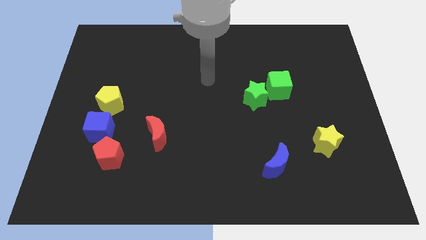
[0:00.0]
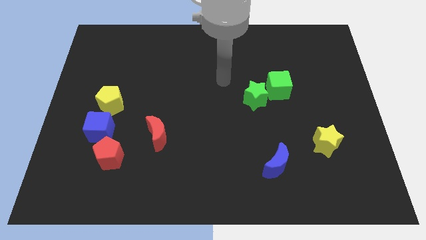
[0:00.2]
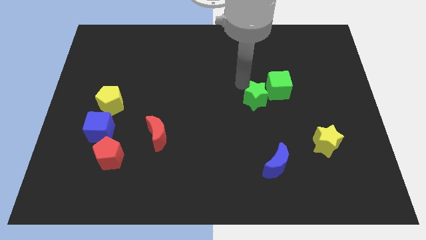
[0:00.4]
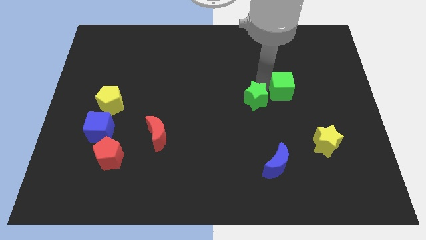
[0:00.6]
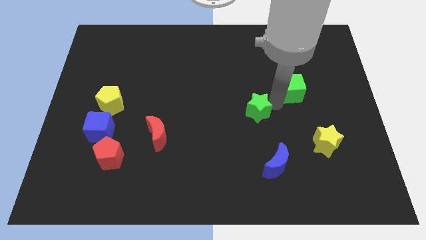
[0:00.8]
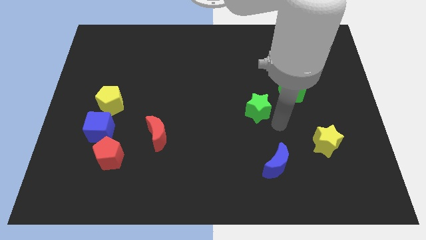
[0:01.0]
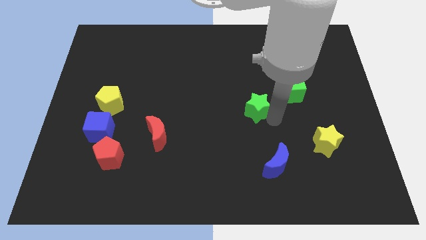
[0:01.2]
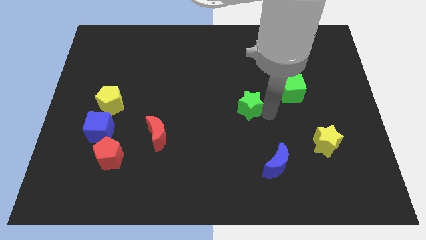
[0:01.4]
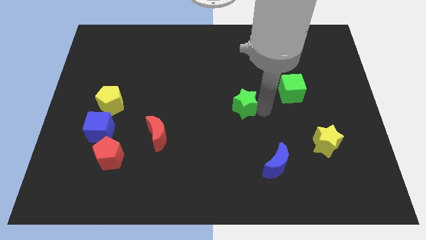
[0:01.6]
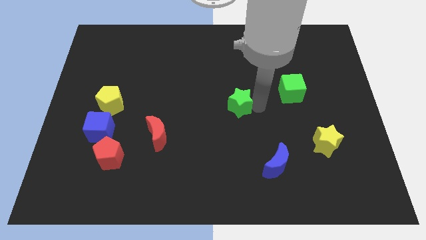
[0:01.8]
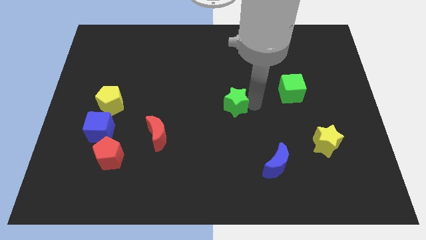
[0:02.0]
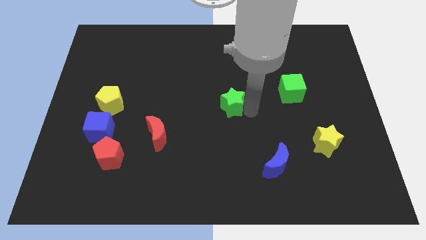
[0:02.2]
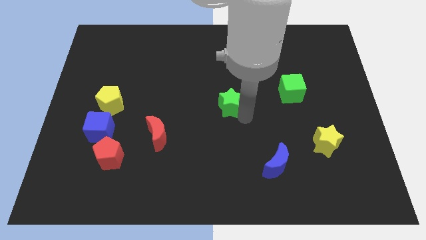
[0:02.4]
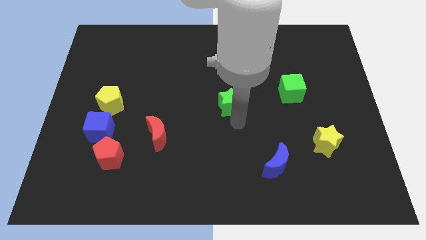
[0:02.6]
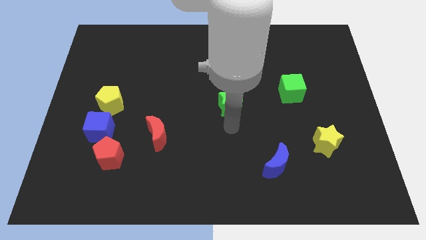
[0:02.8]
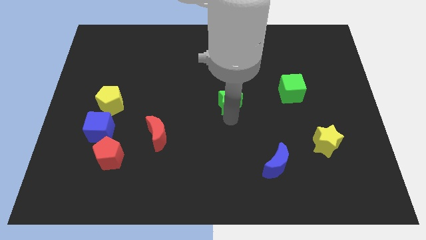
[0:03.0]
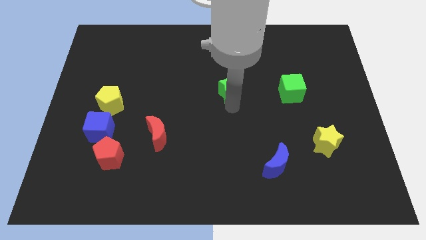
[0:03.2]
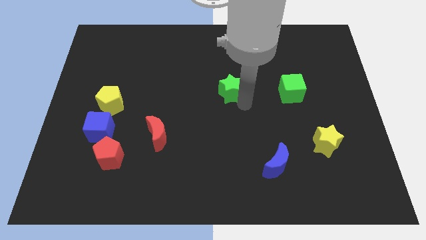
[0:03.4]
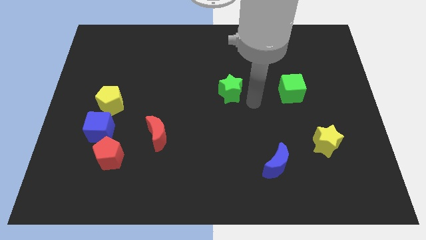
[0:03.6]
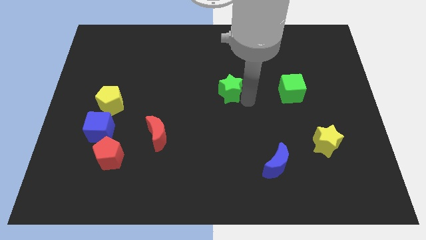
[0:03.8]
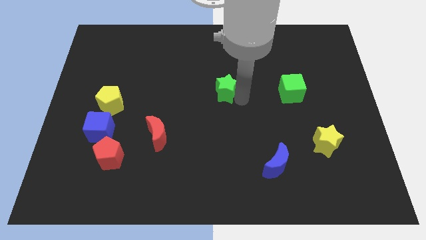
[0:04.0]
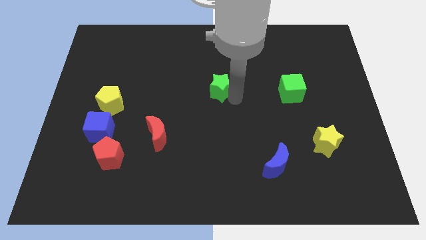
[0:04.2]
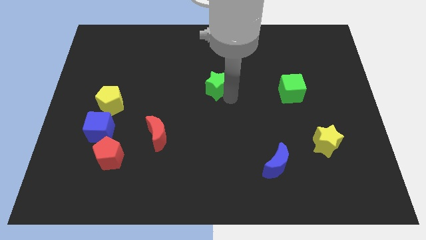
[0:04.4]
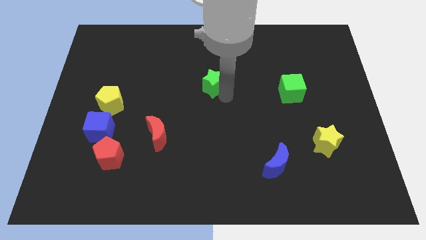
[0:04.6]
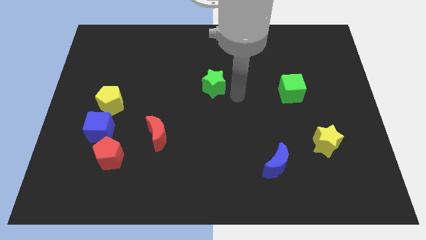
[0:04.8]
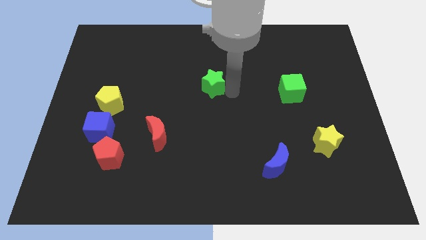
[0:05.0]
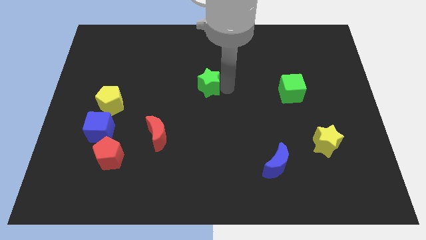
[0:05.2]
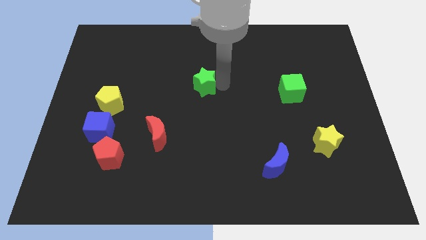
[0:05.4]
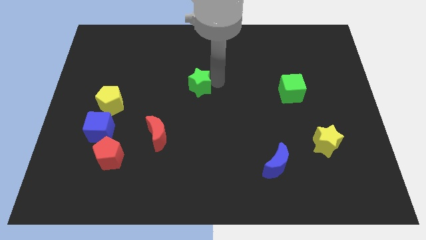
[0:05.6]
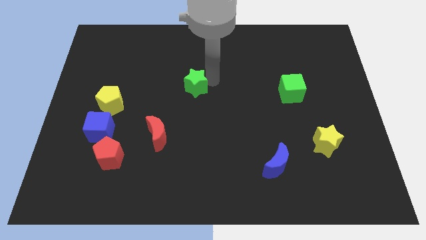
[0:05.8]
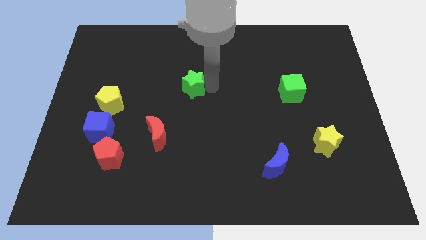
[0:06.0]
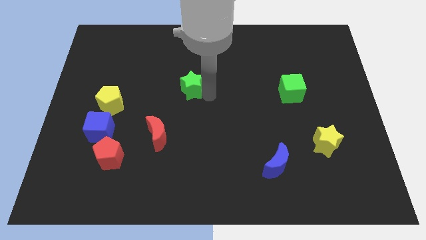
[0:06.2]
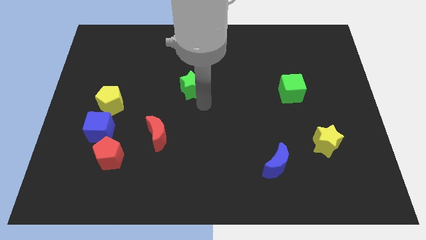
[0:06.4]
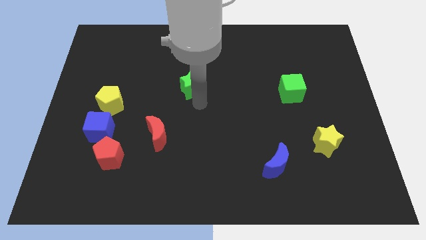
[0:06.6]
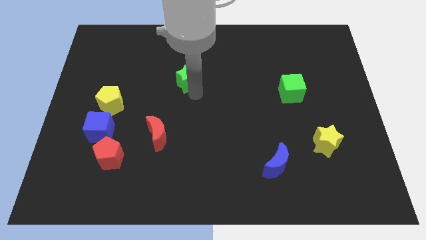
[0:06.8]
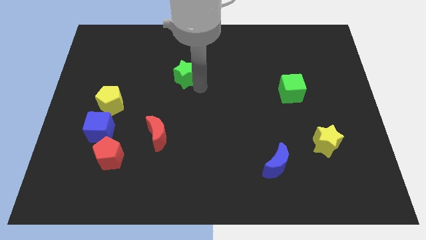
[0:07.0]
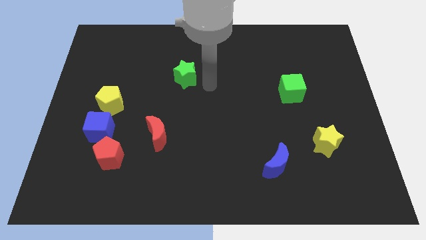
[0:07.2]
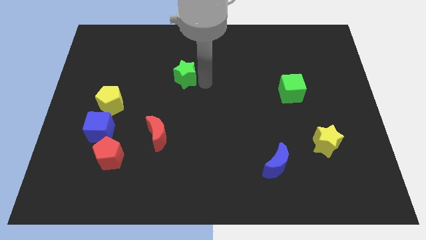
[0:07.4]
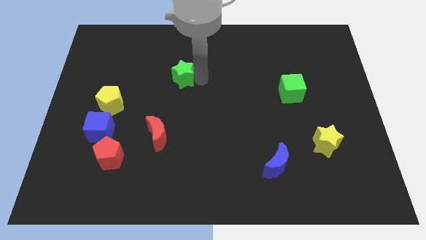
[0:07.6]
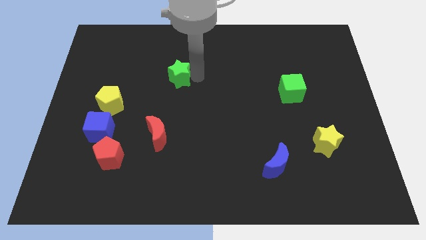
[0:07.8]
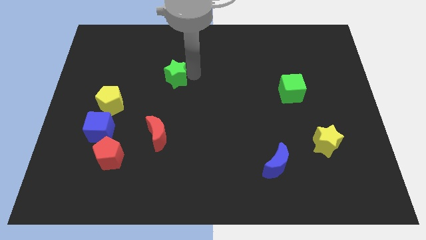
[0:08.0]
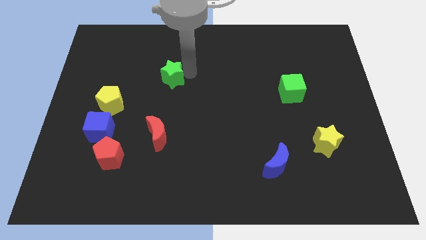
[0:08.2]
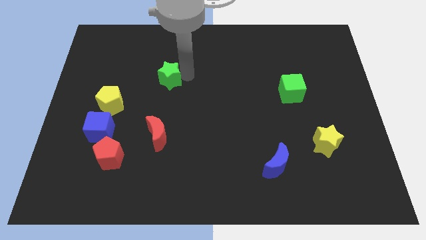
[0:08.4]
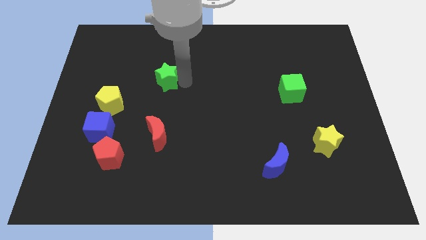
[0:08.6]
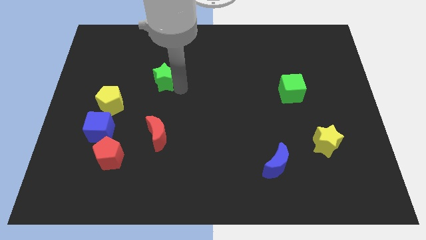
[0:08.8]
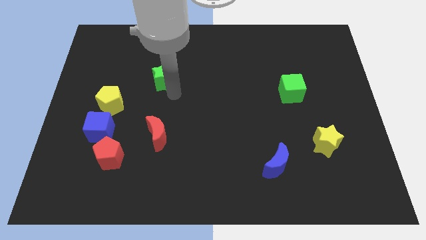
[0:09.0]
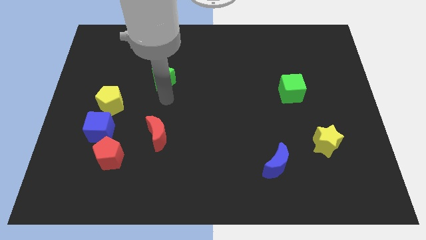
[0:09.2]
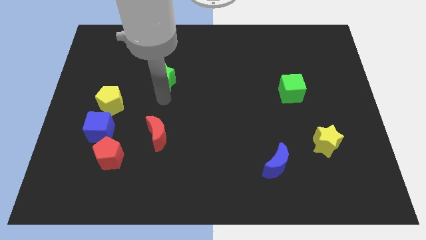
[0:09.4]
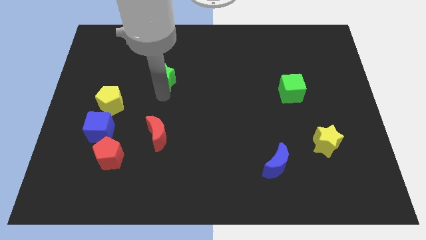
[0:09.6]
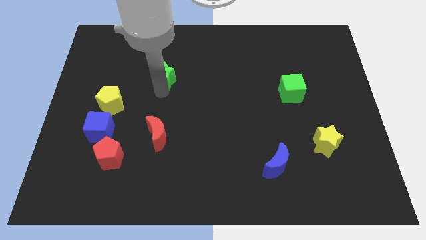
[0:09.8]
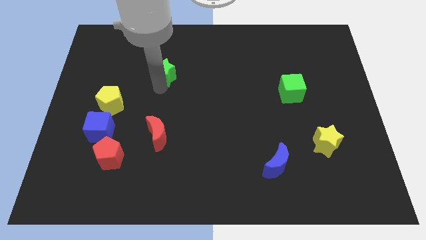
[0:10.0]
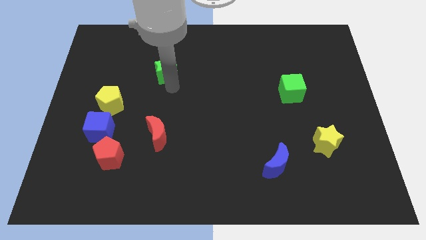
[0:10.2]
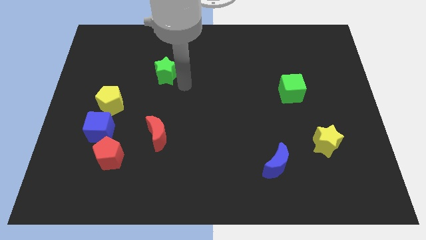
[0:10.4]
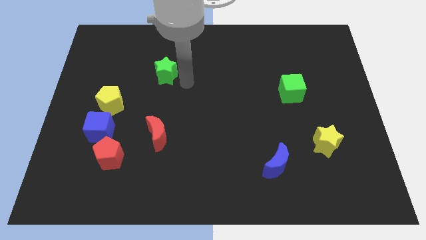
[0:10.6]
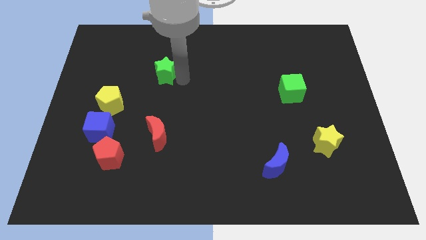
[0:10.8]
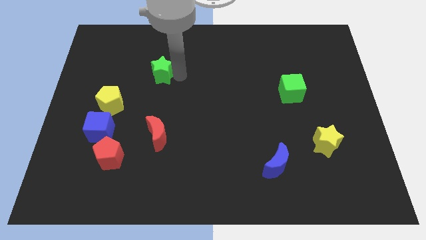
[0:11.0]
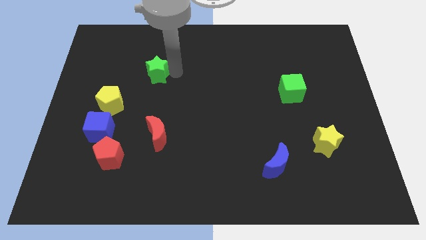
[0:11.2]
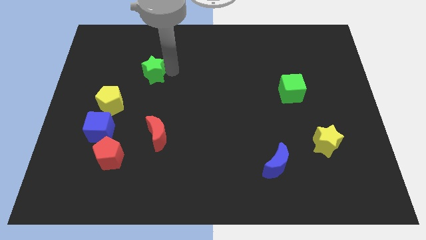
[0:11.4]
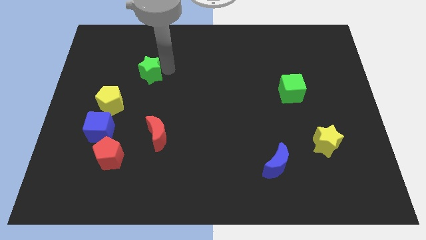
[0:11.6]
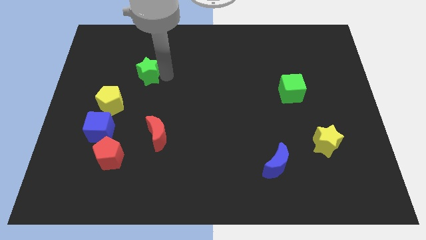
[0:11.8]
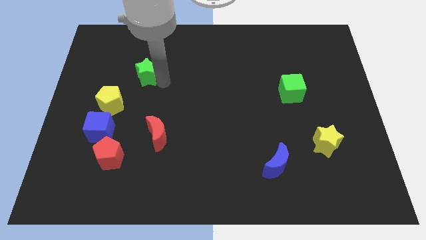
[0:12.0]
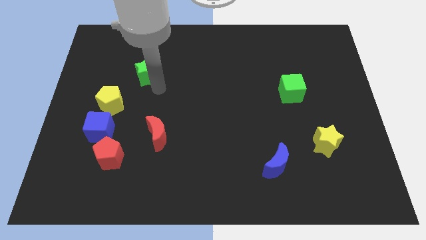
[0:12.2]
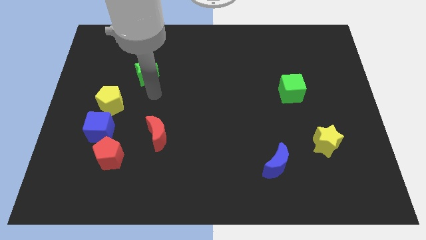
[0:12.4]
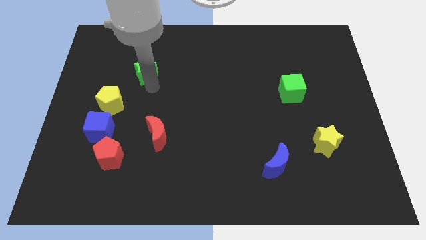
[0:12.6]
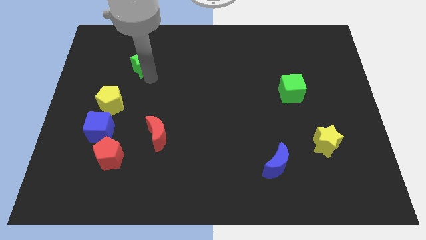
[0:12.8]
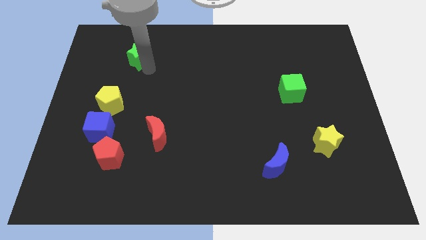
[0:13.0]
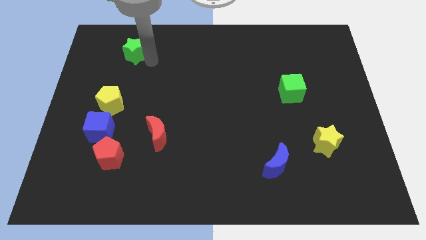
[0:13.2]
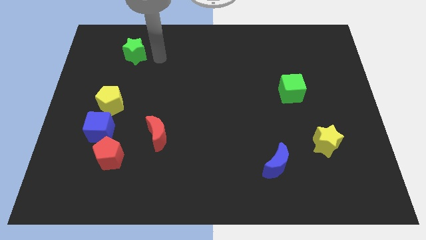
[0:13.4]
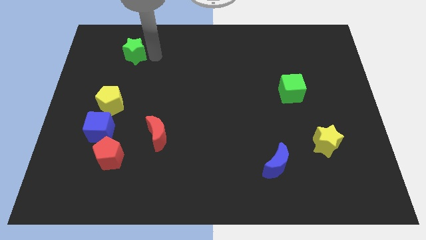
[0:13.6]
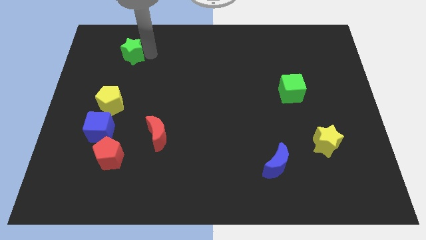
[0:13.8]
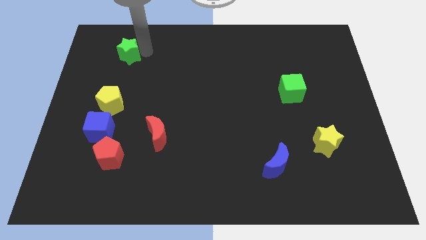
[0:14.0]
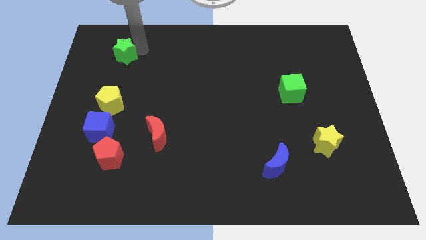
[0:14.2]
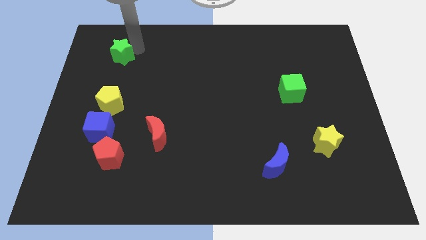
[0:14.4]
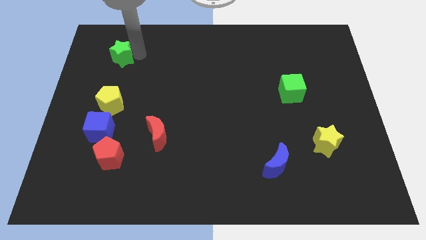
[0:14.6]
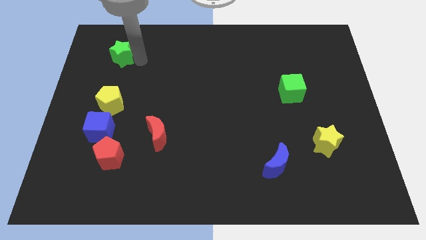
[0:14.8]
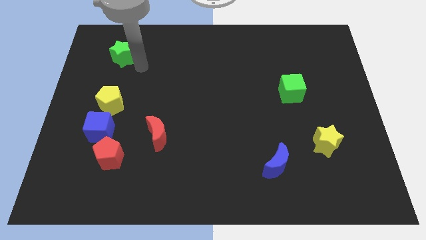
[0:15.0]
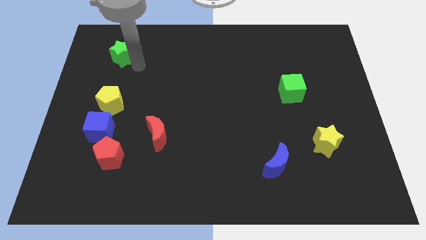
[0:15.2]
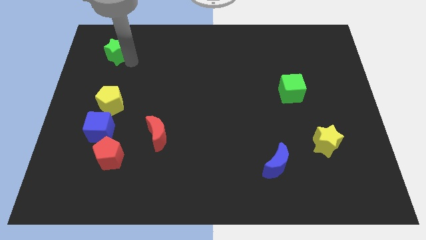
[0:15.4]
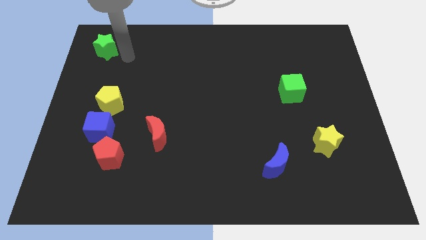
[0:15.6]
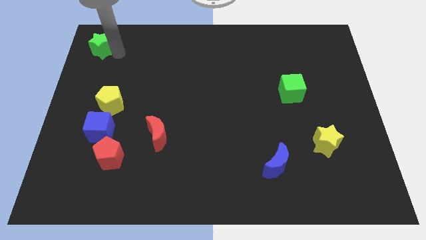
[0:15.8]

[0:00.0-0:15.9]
move the green star to the upper left corner
